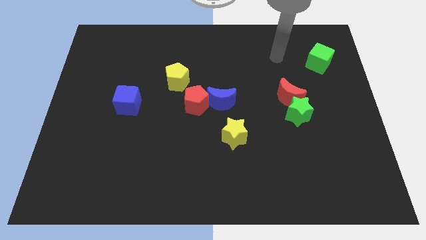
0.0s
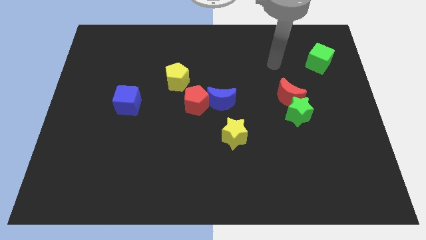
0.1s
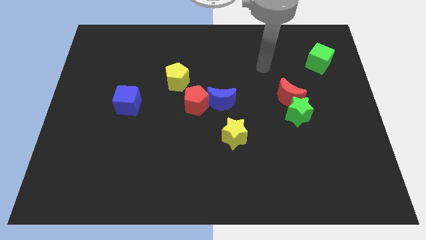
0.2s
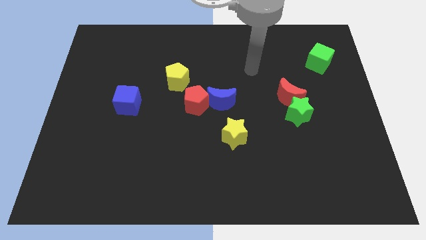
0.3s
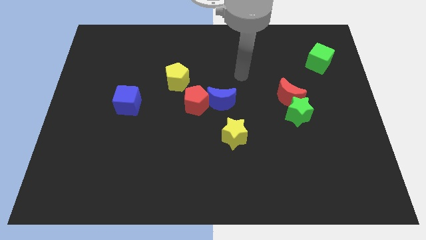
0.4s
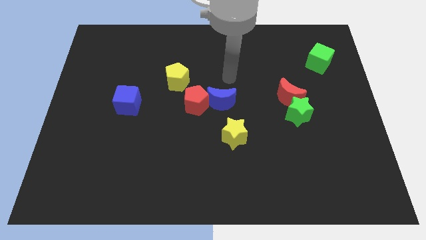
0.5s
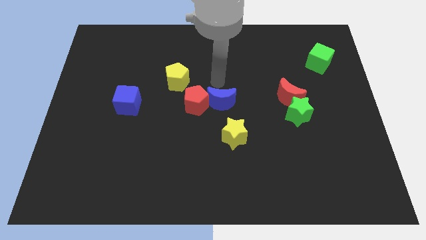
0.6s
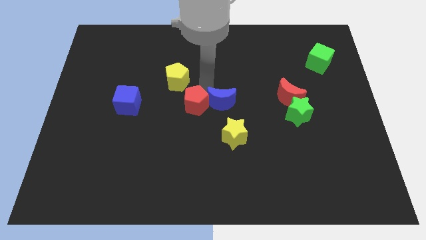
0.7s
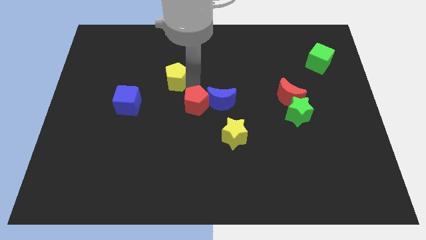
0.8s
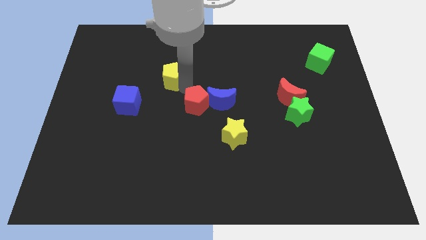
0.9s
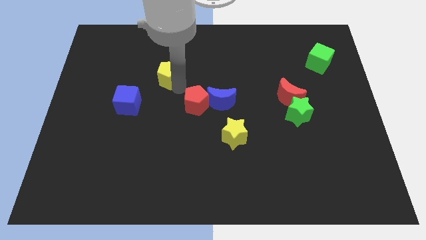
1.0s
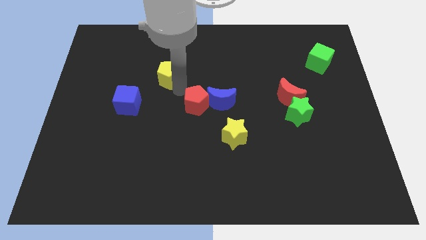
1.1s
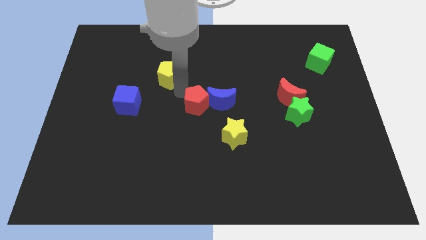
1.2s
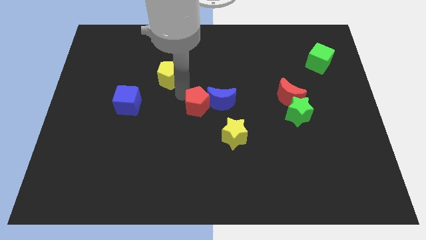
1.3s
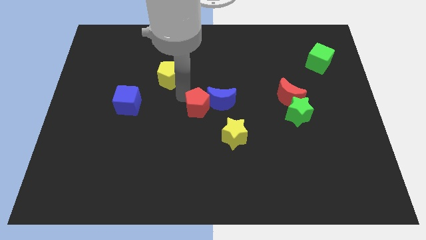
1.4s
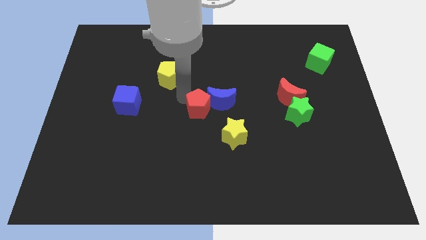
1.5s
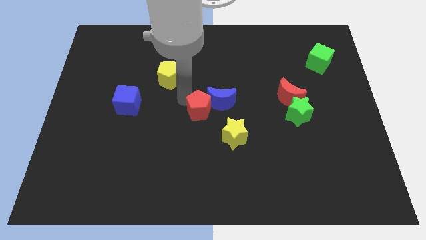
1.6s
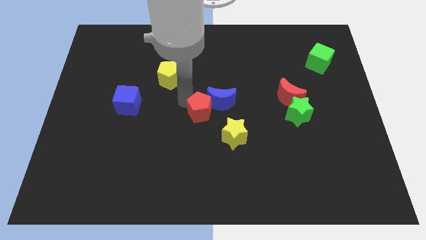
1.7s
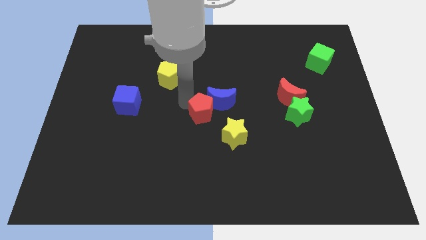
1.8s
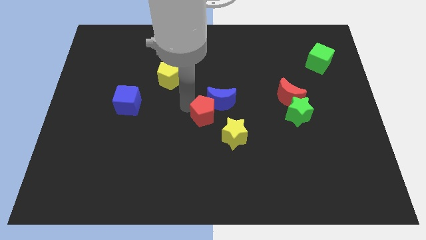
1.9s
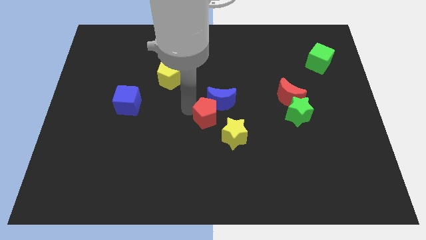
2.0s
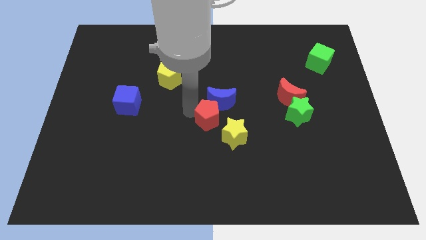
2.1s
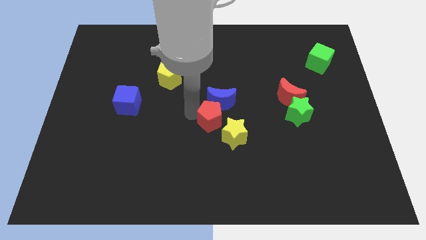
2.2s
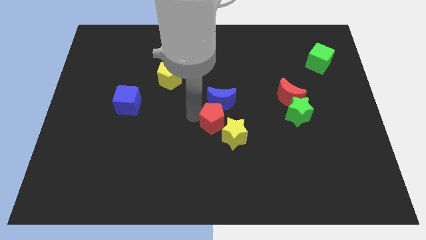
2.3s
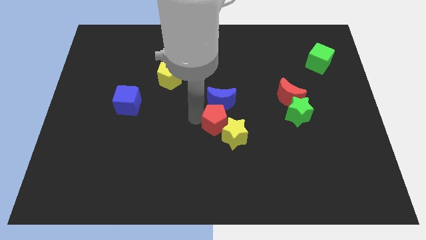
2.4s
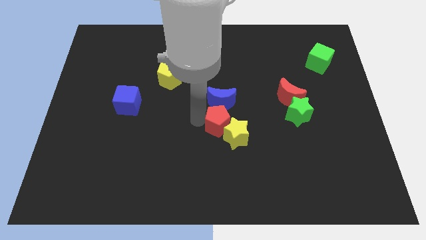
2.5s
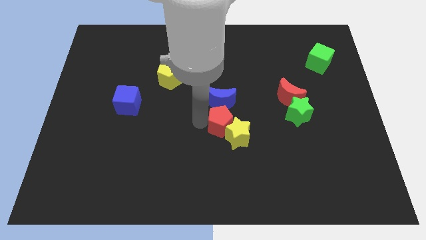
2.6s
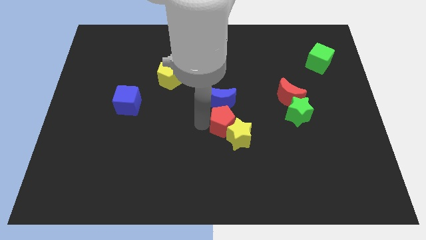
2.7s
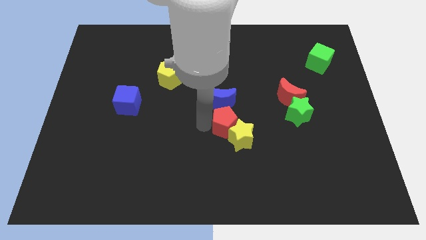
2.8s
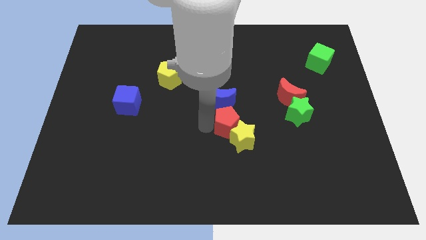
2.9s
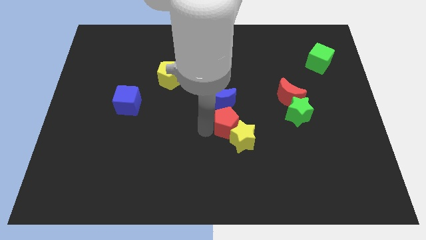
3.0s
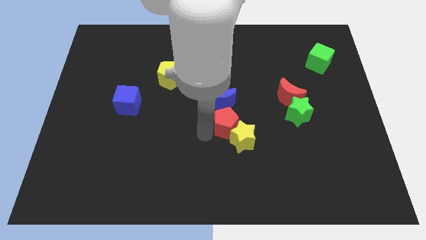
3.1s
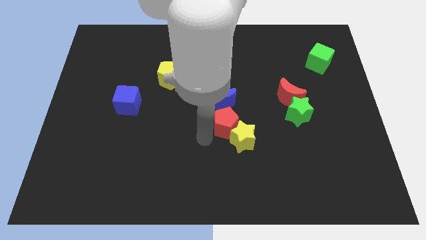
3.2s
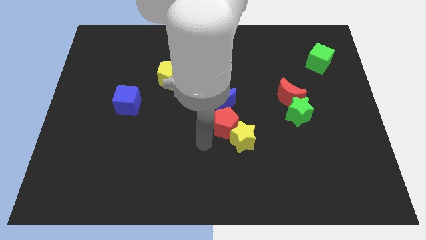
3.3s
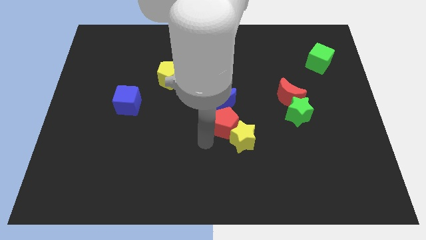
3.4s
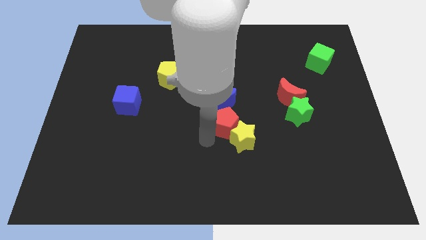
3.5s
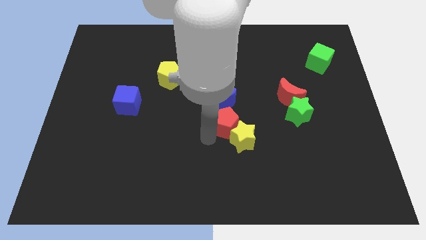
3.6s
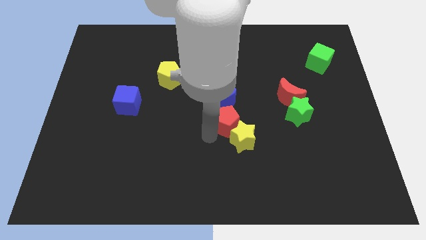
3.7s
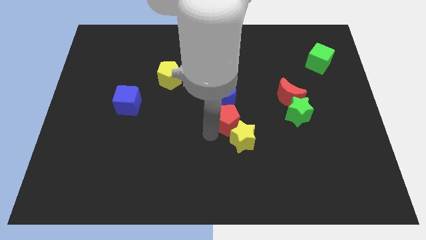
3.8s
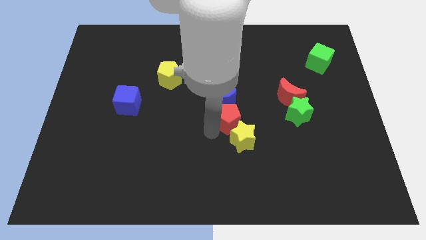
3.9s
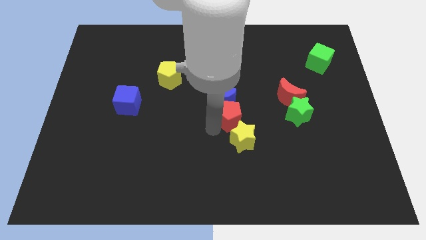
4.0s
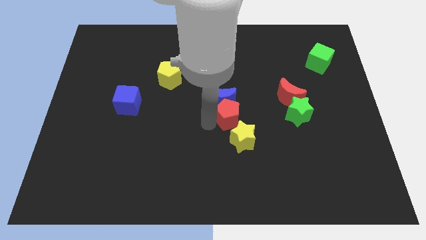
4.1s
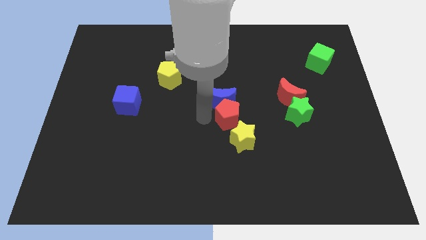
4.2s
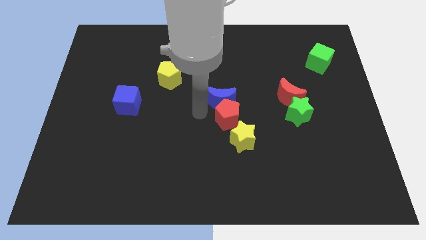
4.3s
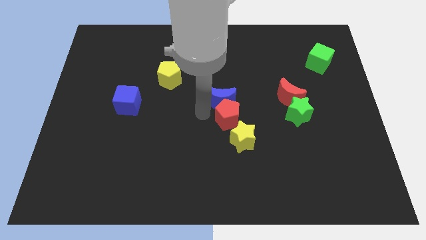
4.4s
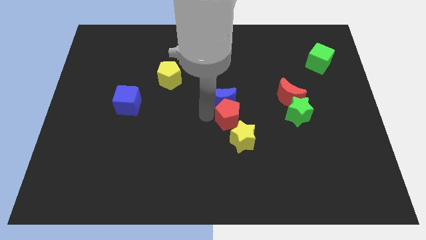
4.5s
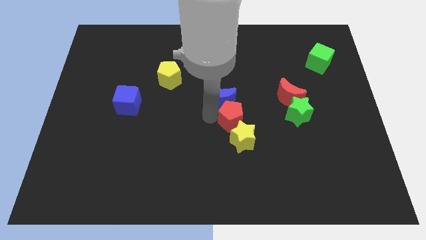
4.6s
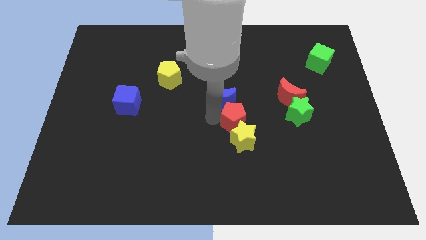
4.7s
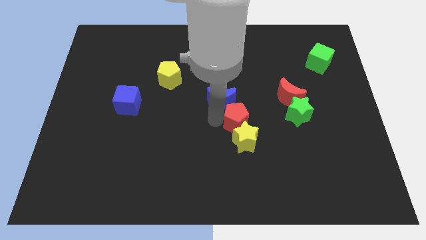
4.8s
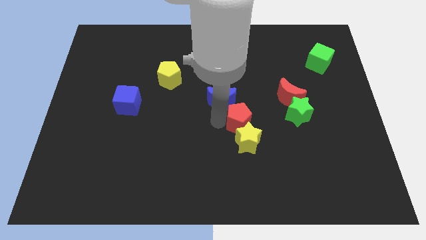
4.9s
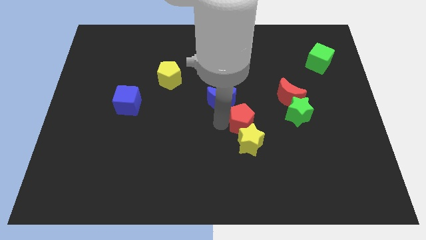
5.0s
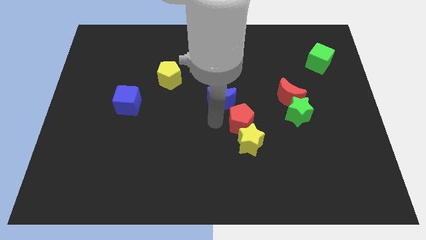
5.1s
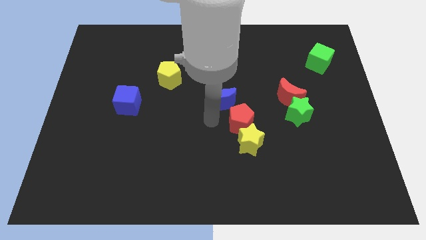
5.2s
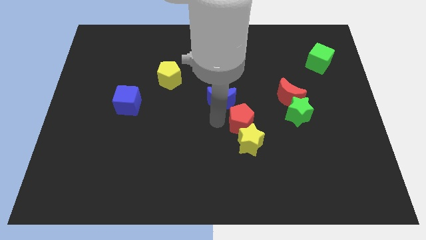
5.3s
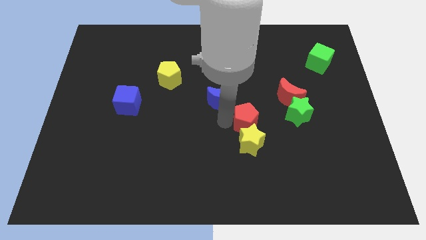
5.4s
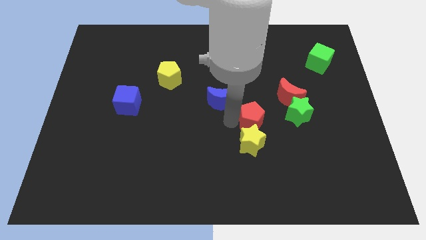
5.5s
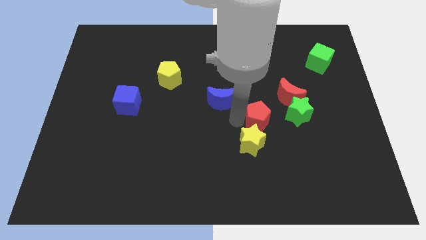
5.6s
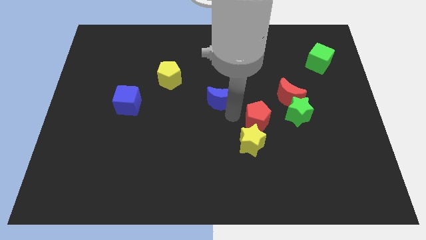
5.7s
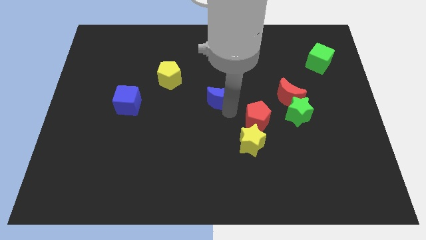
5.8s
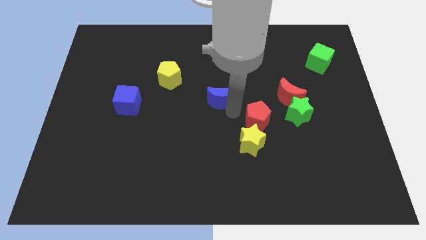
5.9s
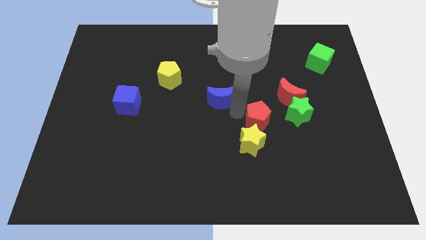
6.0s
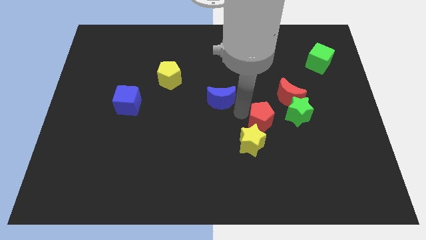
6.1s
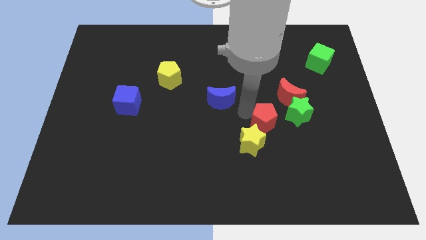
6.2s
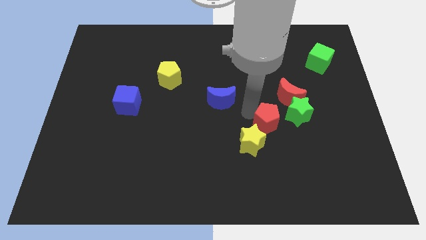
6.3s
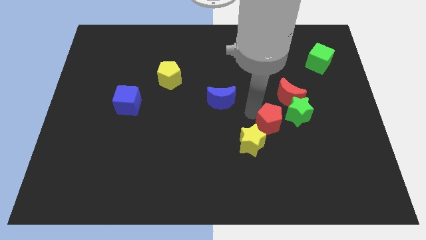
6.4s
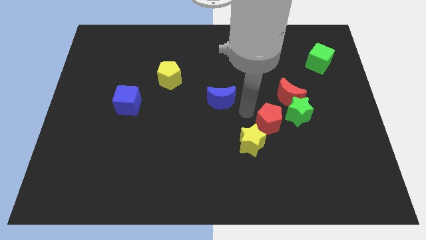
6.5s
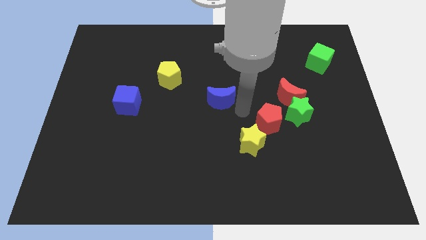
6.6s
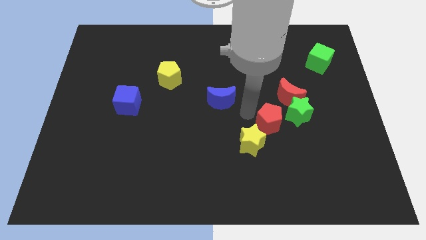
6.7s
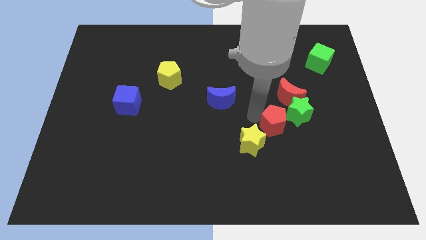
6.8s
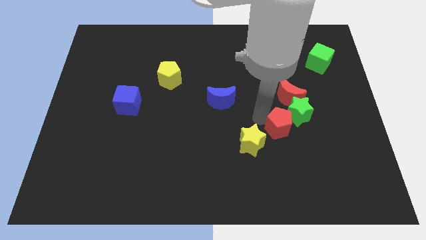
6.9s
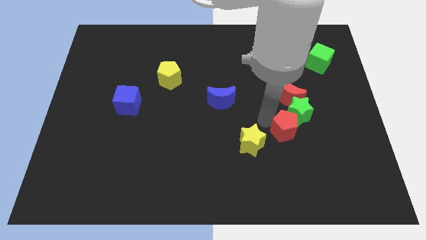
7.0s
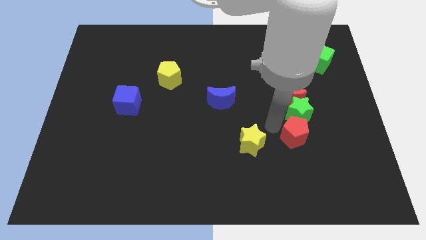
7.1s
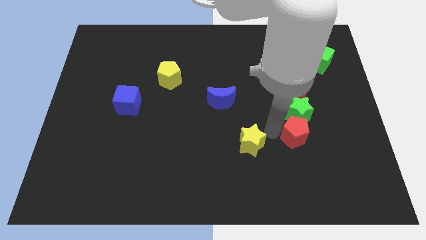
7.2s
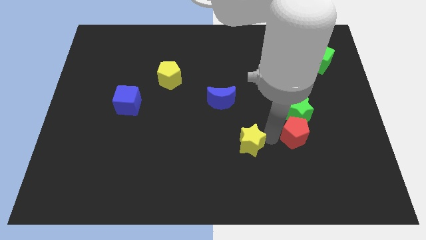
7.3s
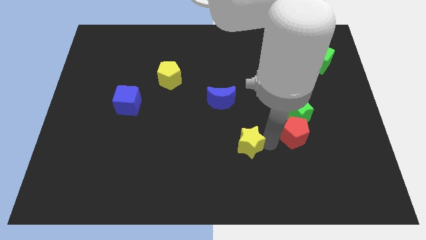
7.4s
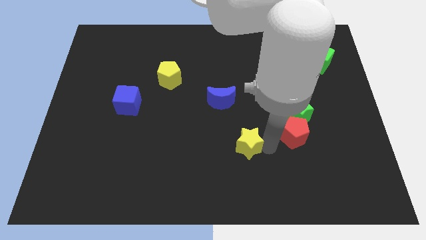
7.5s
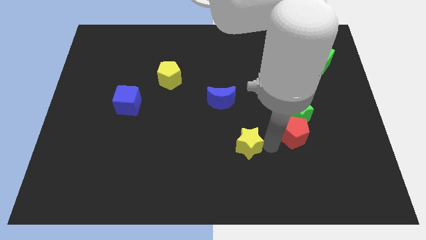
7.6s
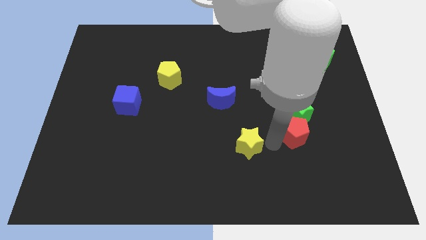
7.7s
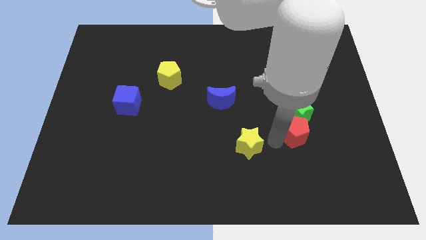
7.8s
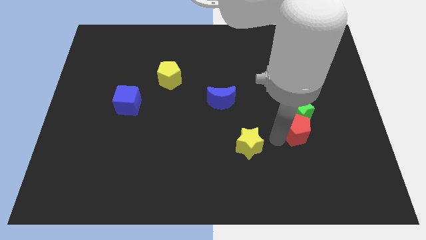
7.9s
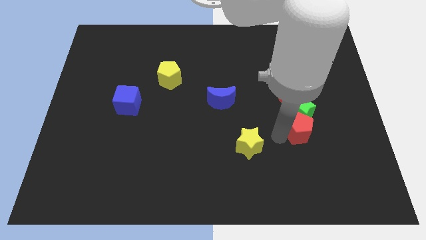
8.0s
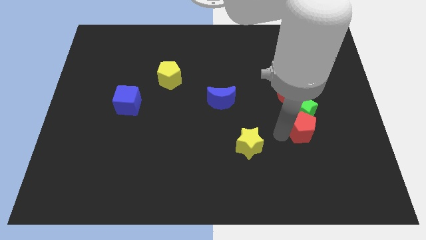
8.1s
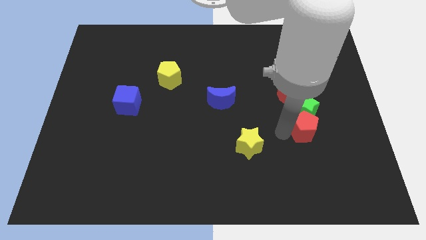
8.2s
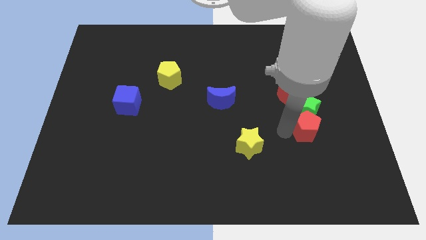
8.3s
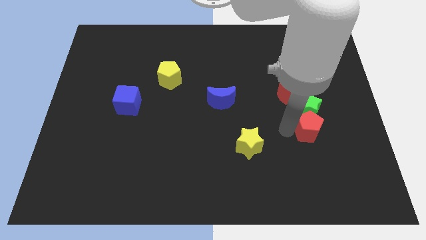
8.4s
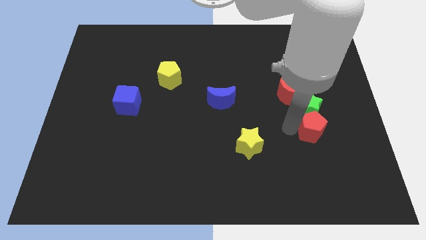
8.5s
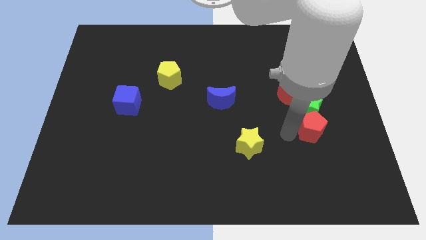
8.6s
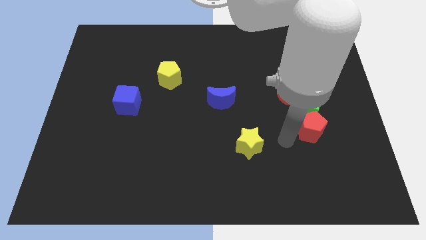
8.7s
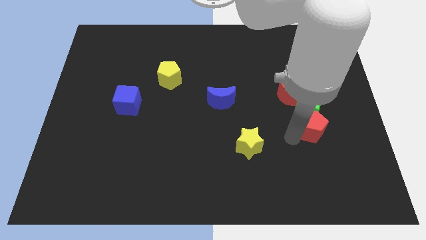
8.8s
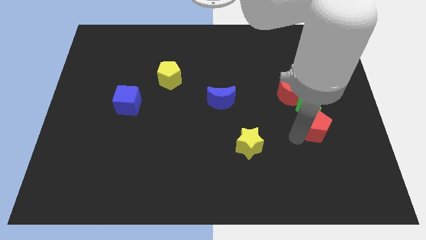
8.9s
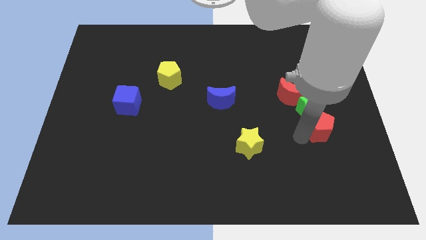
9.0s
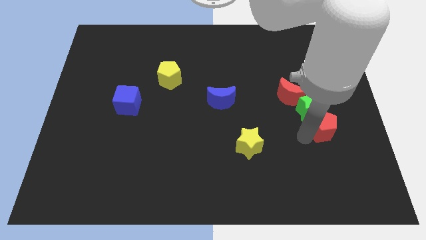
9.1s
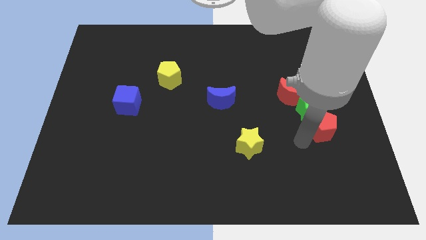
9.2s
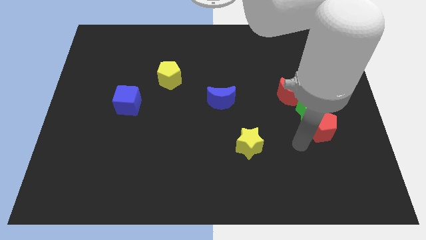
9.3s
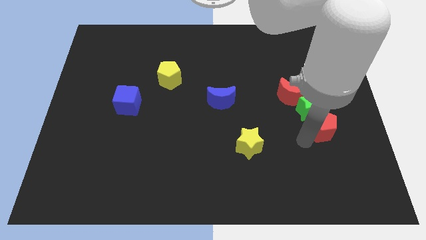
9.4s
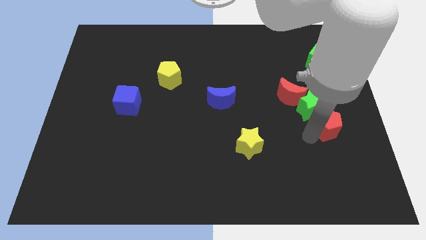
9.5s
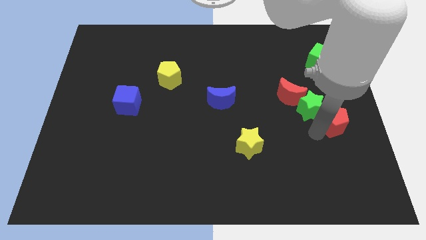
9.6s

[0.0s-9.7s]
put the red pentagon to the center right
